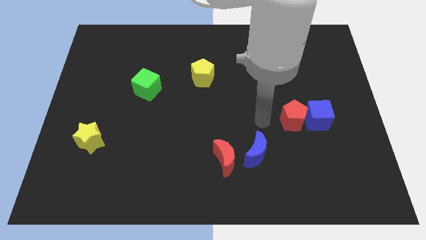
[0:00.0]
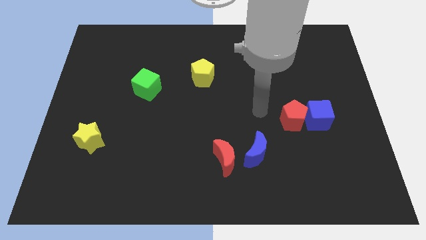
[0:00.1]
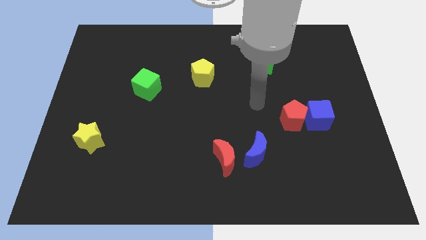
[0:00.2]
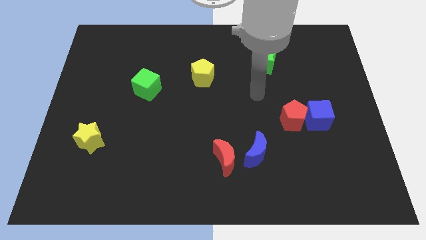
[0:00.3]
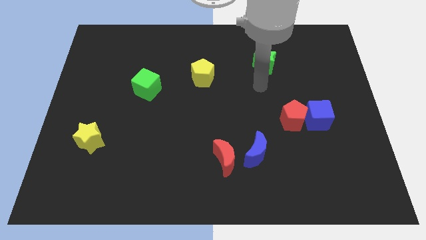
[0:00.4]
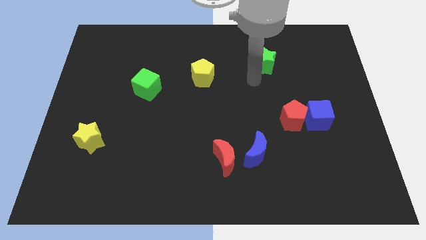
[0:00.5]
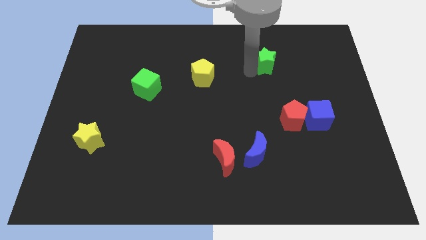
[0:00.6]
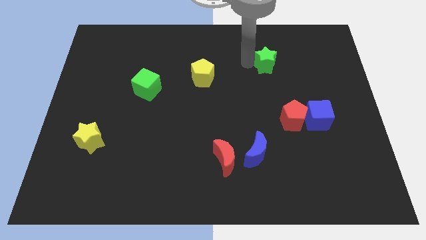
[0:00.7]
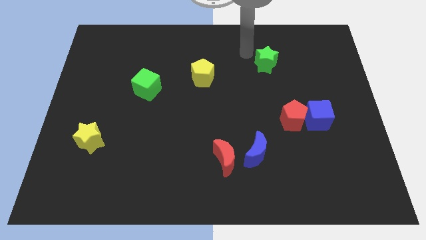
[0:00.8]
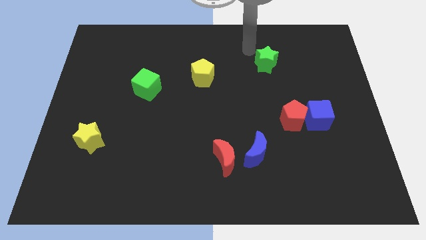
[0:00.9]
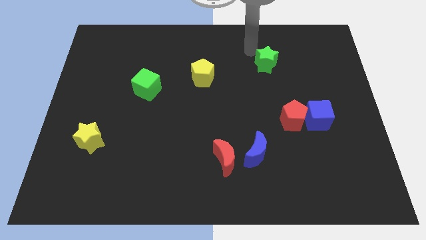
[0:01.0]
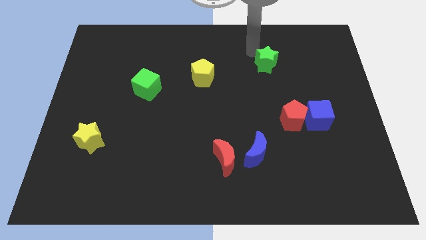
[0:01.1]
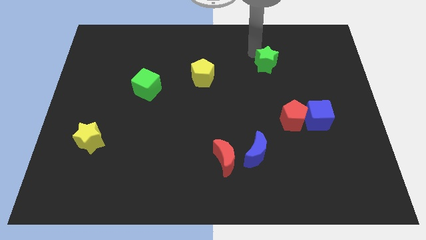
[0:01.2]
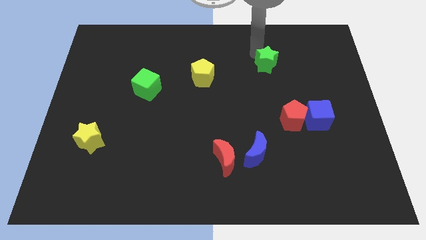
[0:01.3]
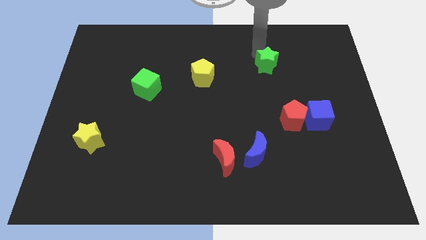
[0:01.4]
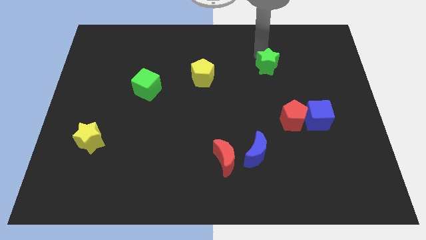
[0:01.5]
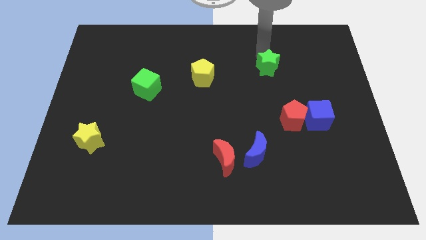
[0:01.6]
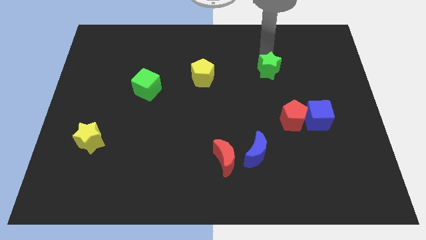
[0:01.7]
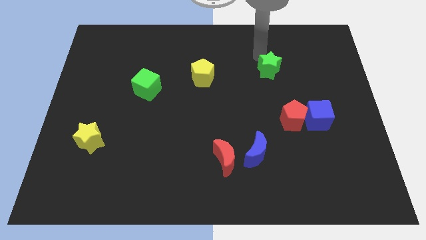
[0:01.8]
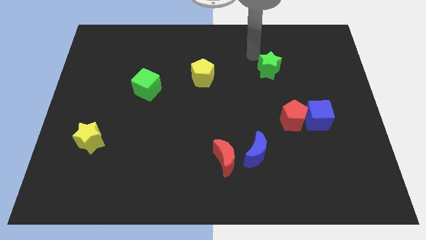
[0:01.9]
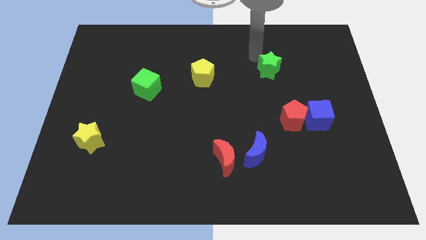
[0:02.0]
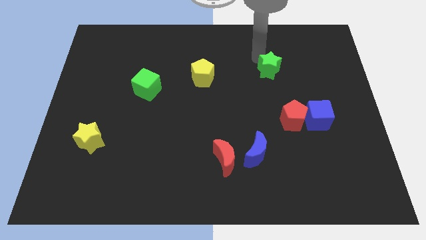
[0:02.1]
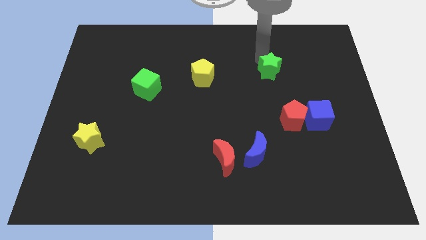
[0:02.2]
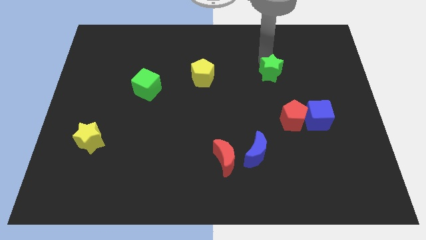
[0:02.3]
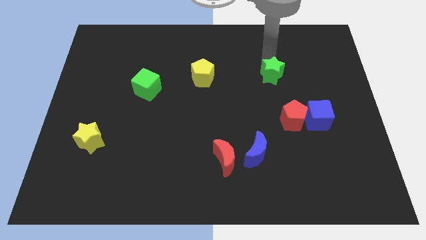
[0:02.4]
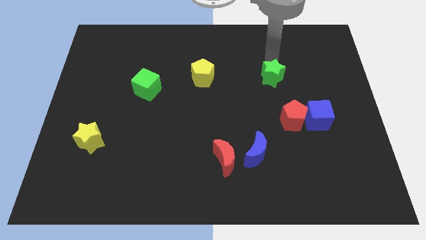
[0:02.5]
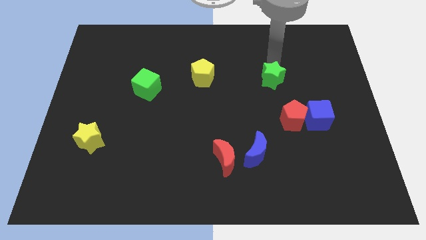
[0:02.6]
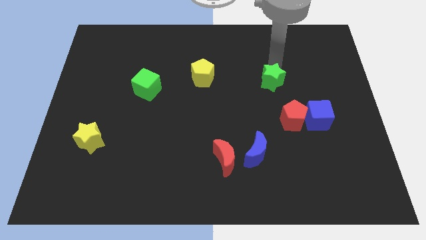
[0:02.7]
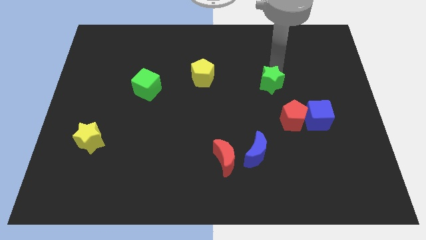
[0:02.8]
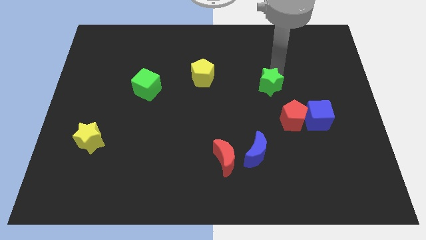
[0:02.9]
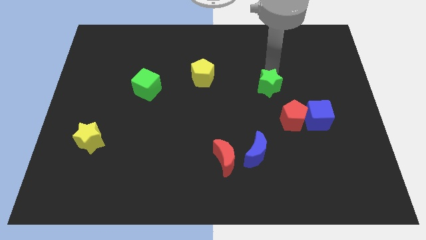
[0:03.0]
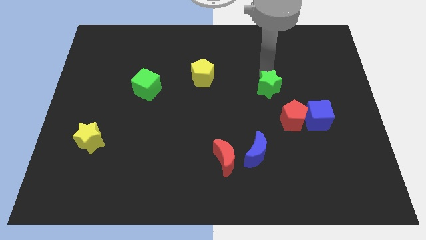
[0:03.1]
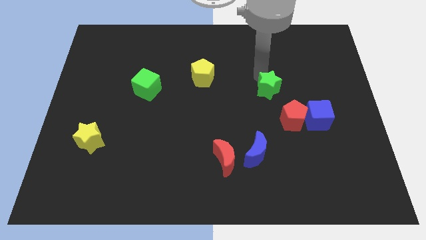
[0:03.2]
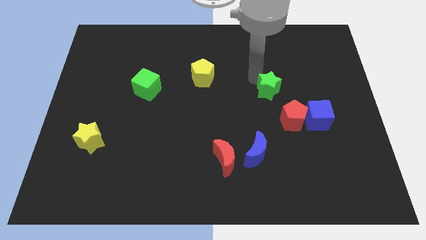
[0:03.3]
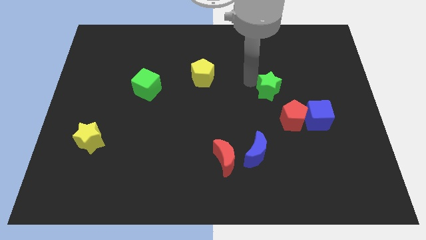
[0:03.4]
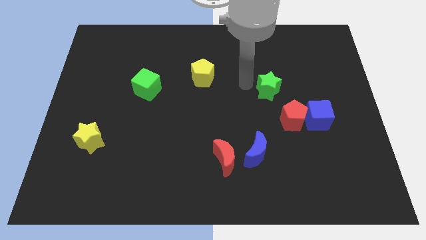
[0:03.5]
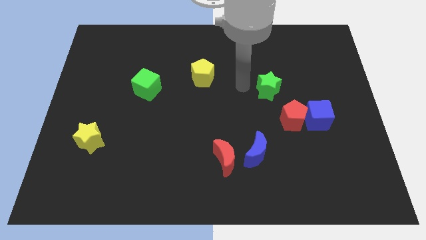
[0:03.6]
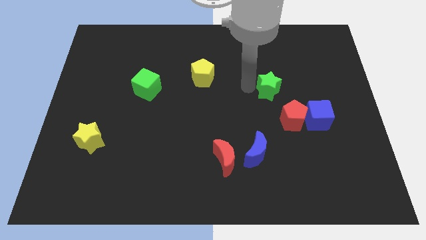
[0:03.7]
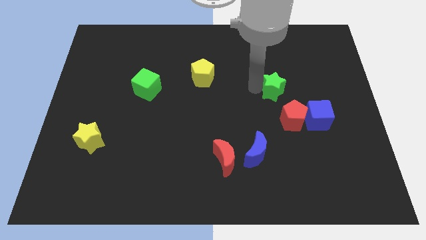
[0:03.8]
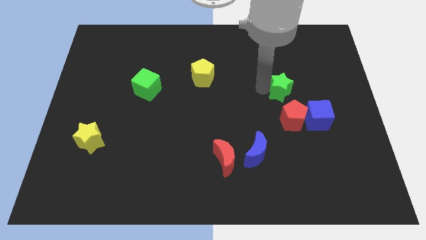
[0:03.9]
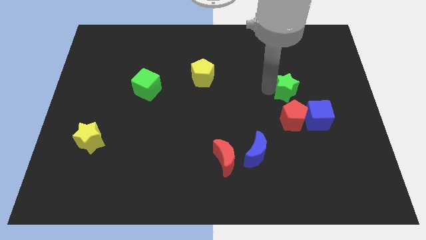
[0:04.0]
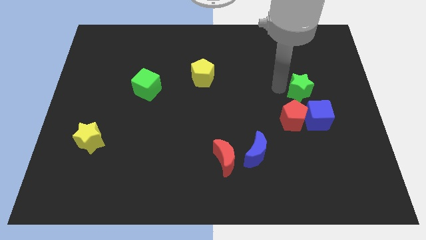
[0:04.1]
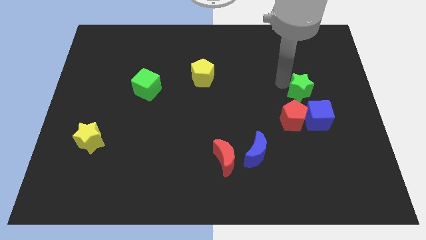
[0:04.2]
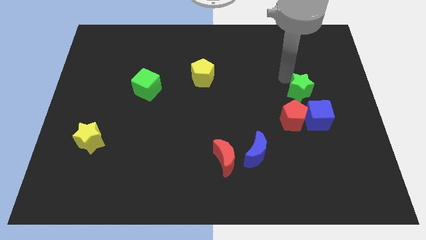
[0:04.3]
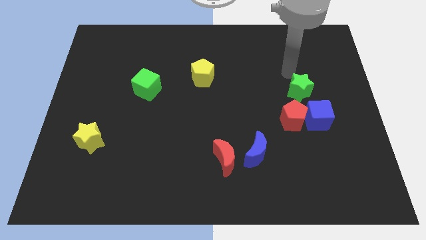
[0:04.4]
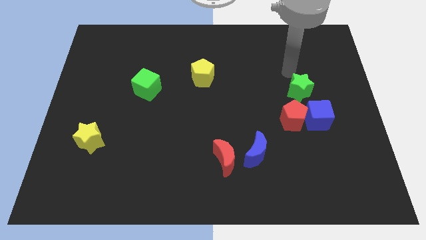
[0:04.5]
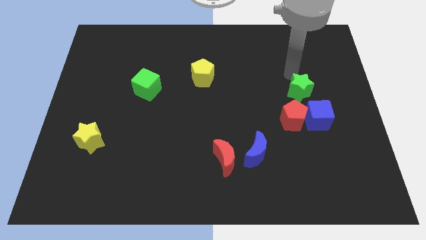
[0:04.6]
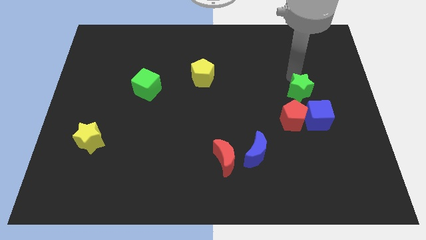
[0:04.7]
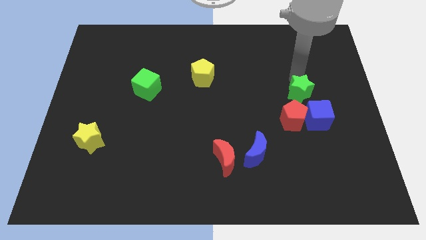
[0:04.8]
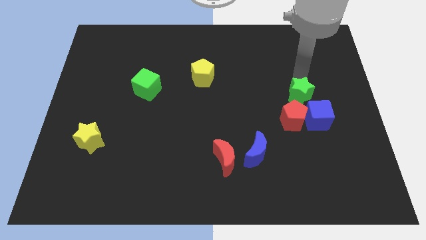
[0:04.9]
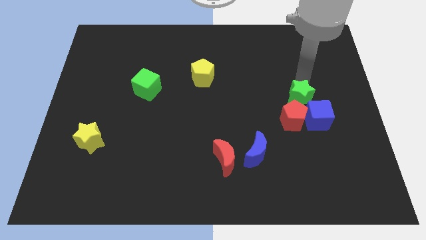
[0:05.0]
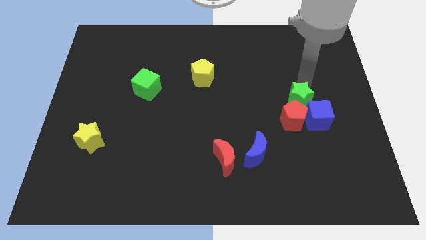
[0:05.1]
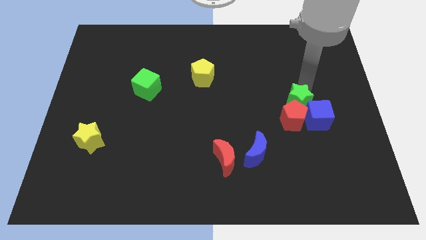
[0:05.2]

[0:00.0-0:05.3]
push the green star close to the blue cube

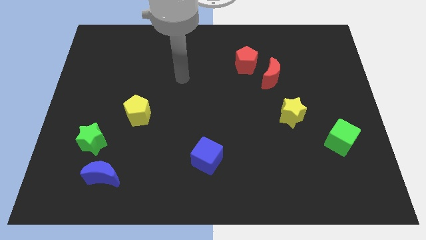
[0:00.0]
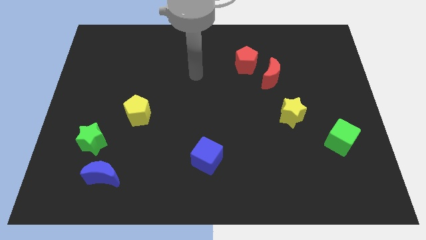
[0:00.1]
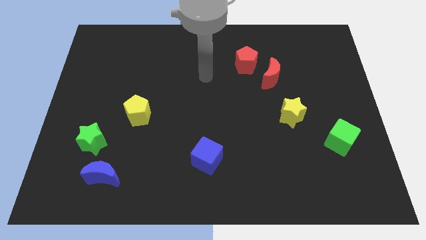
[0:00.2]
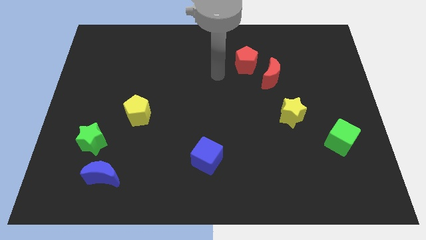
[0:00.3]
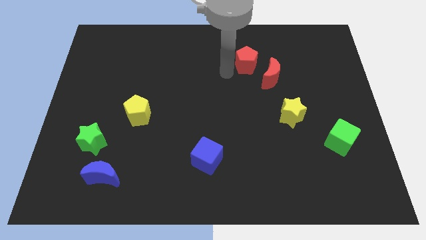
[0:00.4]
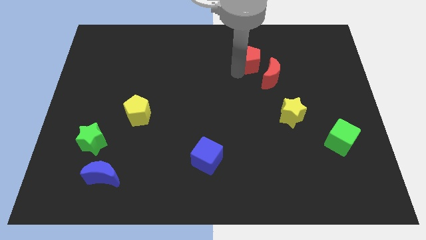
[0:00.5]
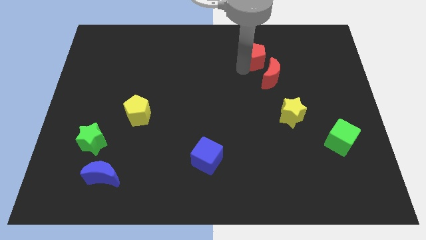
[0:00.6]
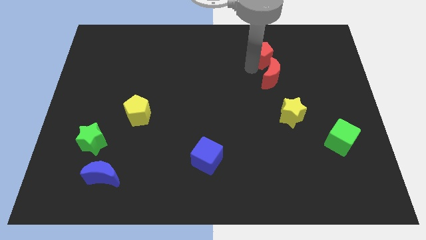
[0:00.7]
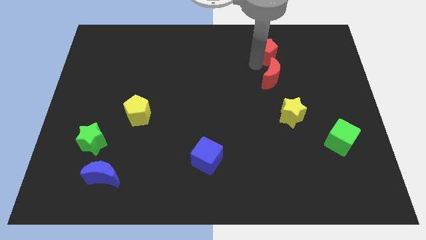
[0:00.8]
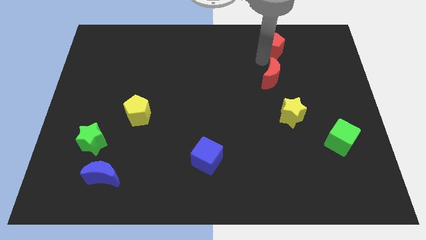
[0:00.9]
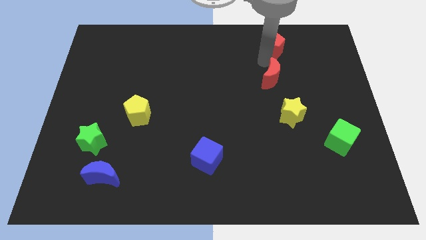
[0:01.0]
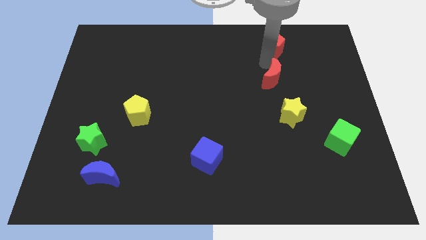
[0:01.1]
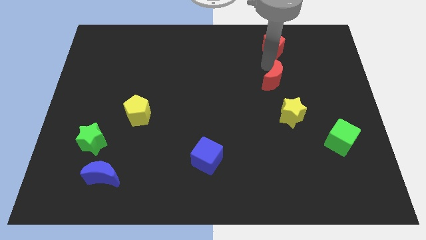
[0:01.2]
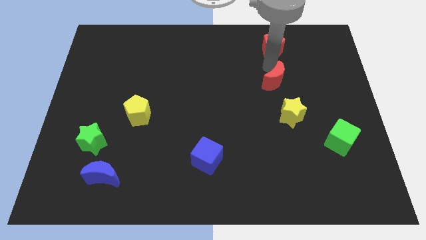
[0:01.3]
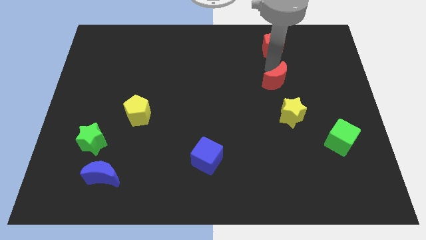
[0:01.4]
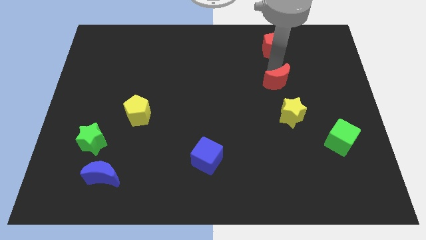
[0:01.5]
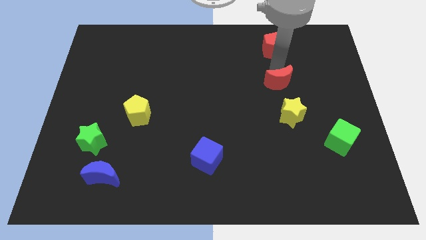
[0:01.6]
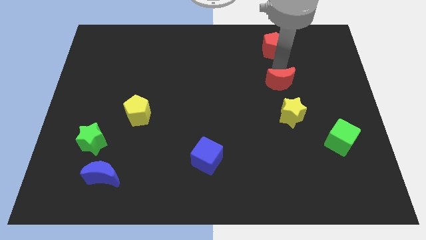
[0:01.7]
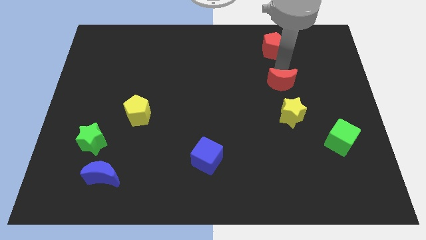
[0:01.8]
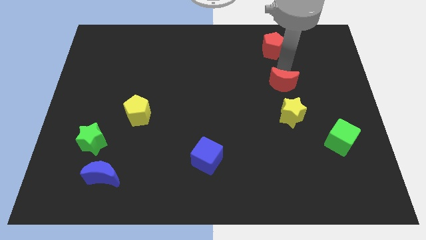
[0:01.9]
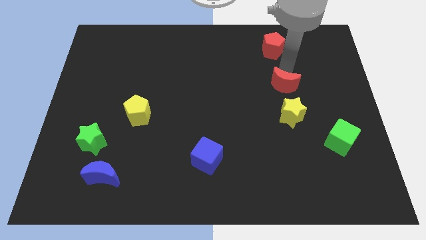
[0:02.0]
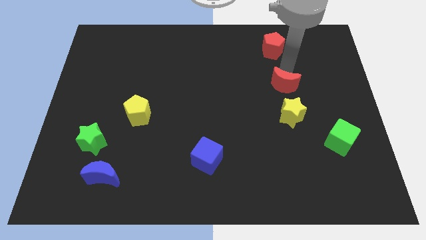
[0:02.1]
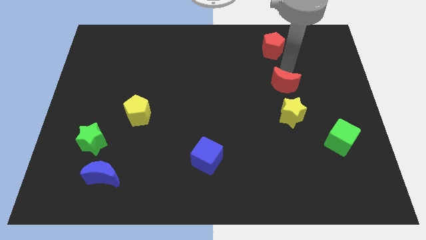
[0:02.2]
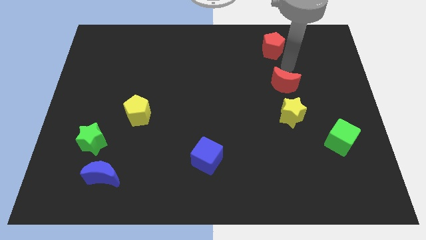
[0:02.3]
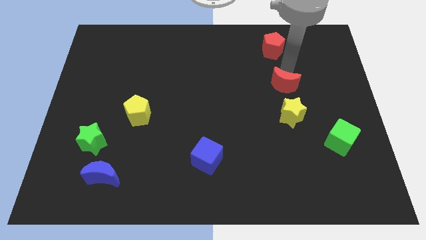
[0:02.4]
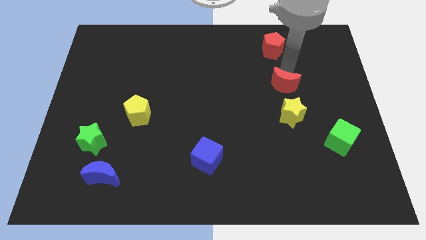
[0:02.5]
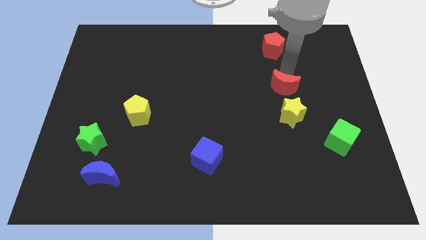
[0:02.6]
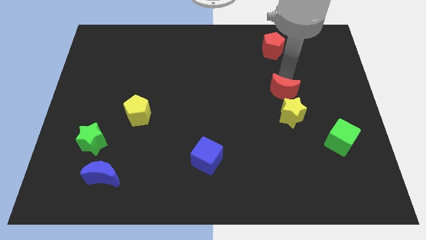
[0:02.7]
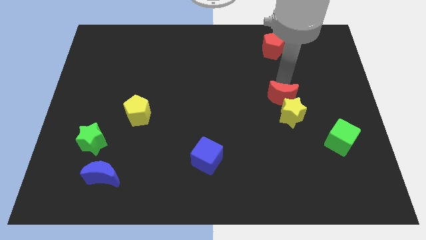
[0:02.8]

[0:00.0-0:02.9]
push the red moon next to the yellow star
